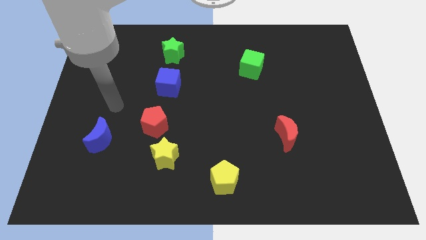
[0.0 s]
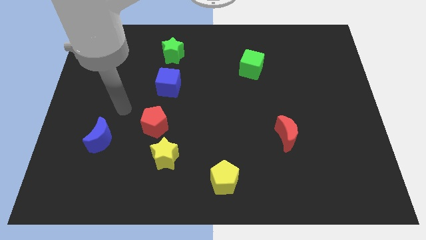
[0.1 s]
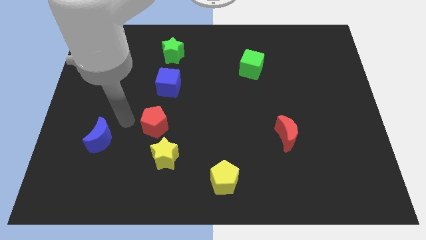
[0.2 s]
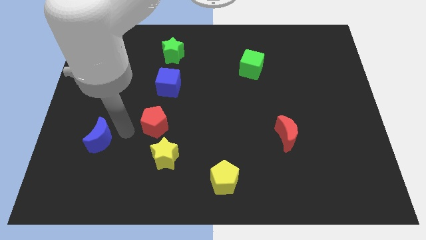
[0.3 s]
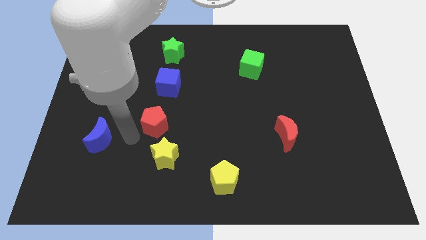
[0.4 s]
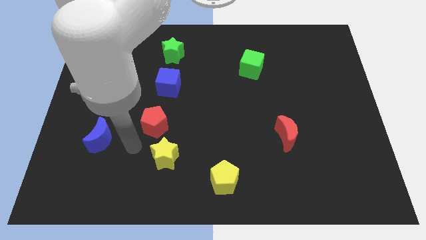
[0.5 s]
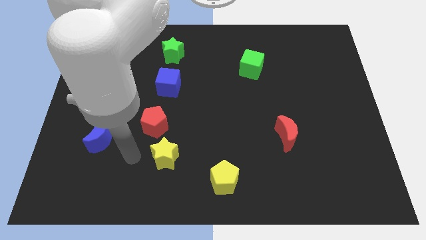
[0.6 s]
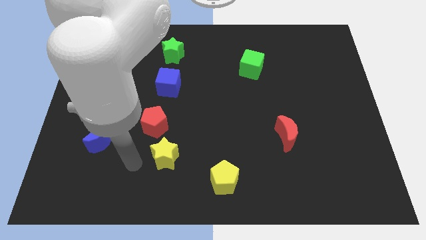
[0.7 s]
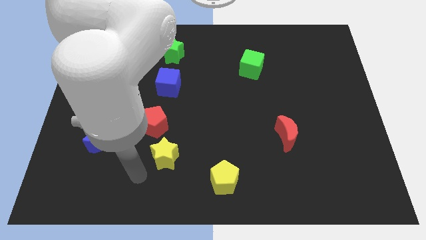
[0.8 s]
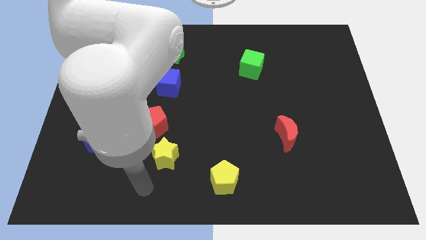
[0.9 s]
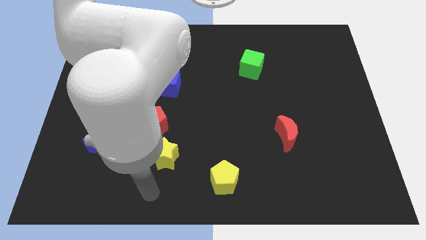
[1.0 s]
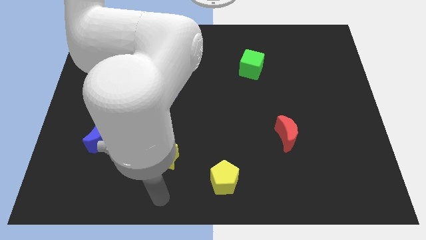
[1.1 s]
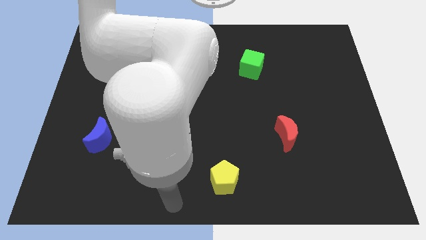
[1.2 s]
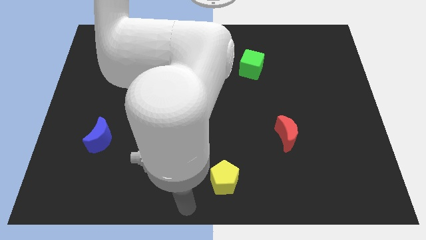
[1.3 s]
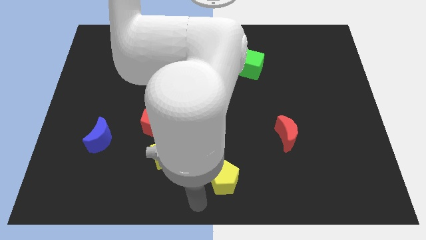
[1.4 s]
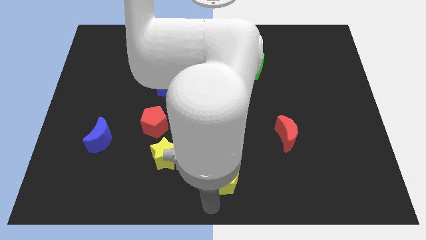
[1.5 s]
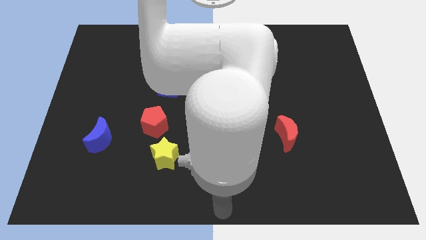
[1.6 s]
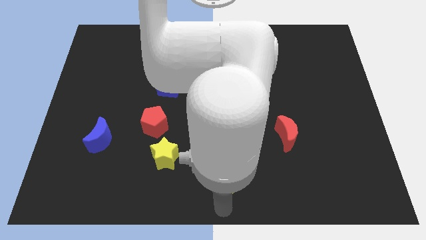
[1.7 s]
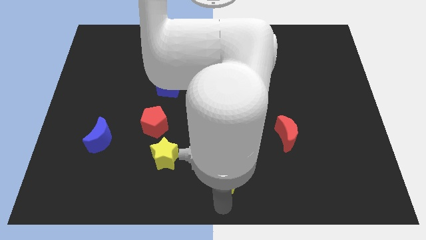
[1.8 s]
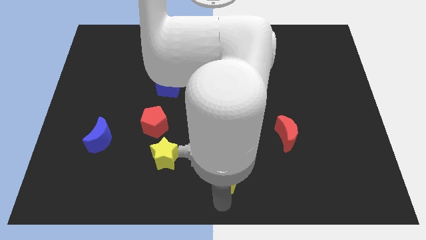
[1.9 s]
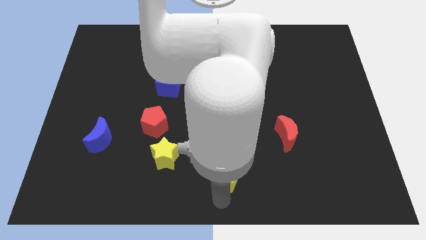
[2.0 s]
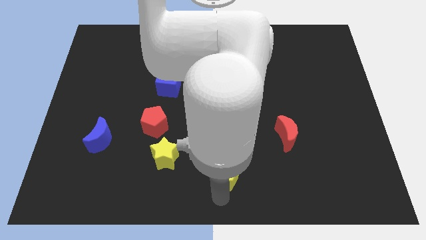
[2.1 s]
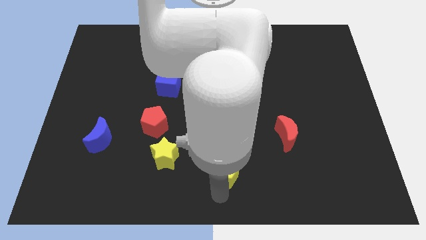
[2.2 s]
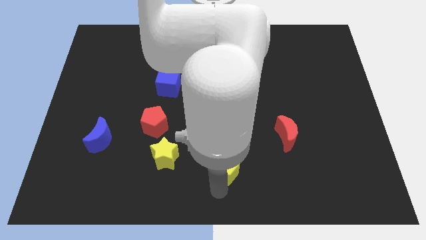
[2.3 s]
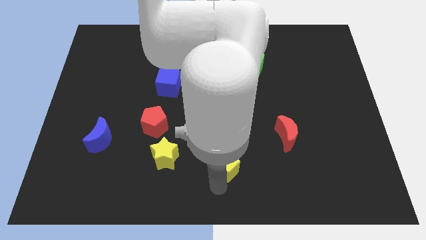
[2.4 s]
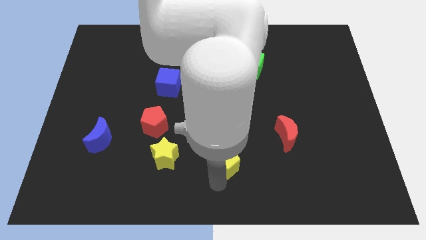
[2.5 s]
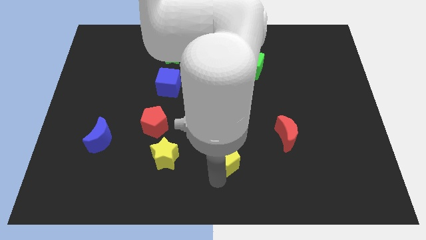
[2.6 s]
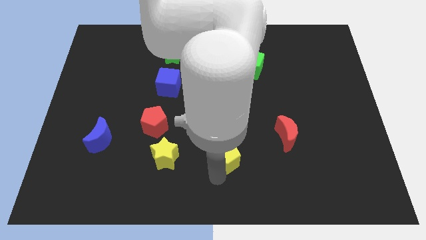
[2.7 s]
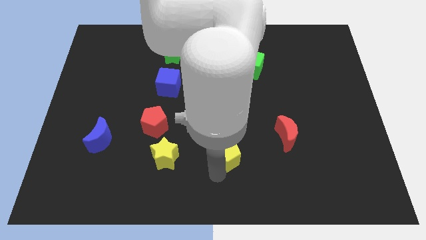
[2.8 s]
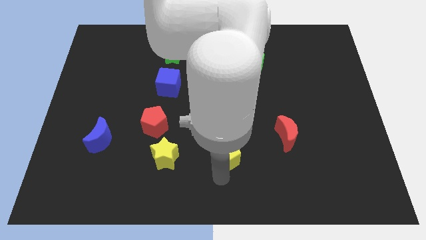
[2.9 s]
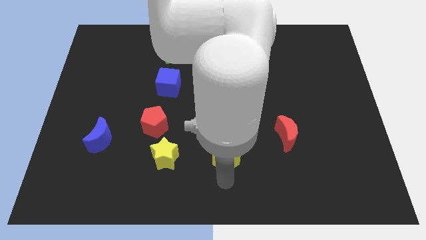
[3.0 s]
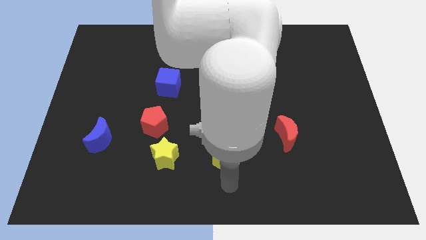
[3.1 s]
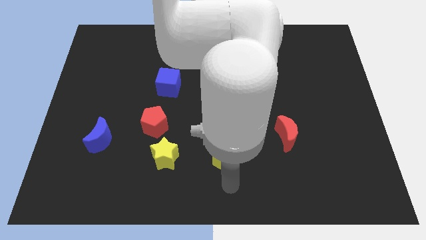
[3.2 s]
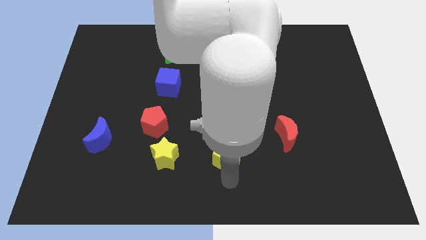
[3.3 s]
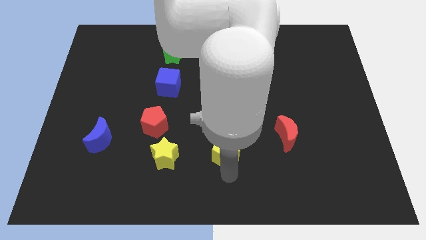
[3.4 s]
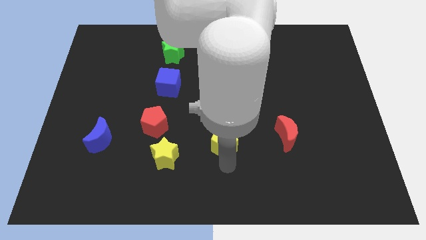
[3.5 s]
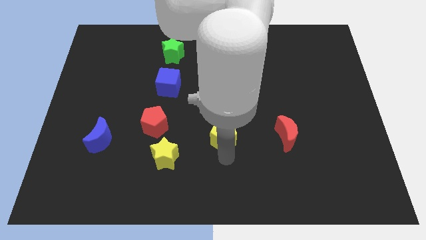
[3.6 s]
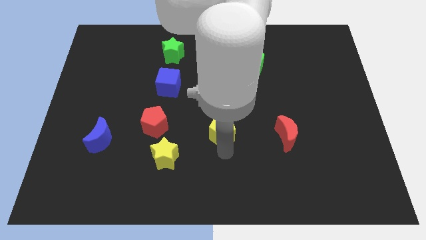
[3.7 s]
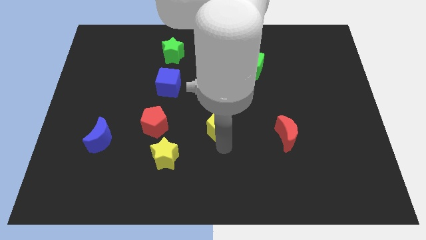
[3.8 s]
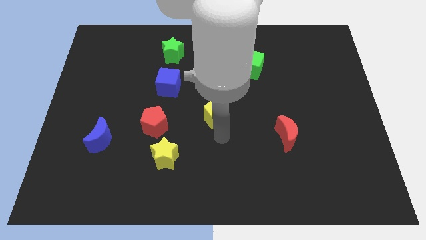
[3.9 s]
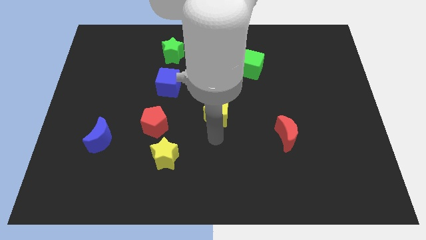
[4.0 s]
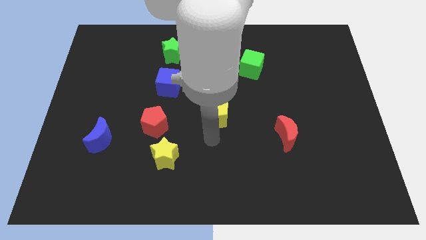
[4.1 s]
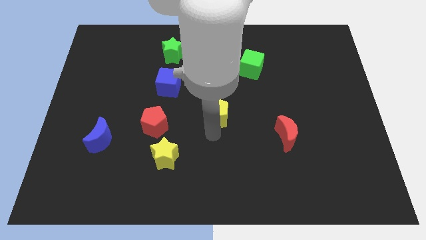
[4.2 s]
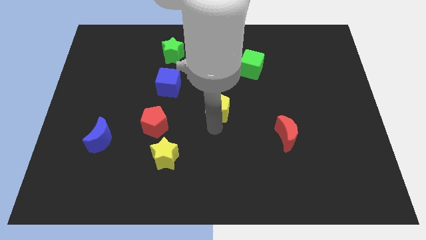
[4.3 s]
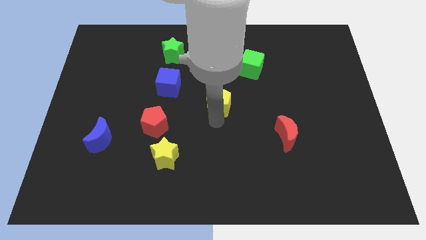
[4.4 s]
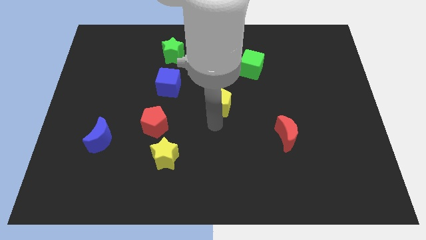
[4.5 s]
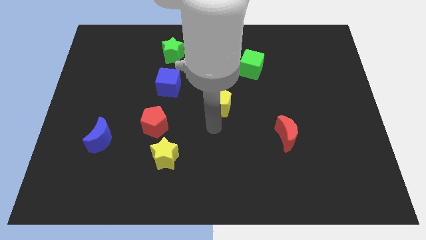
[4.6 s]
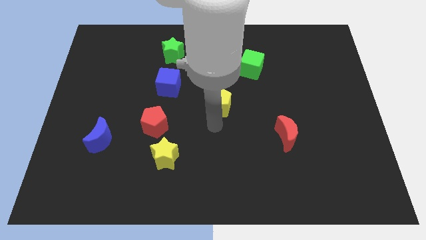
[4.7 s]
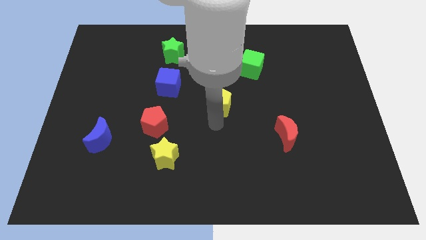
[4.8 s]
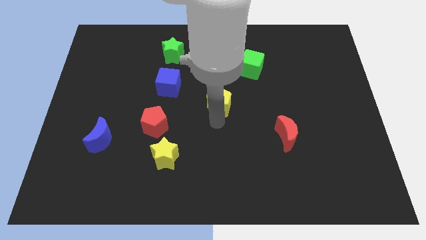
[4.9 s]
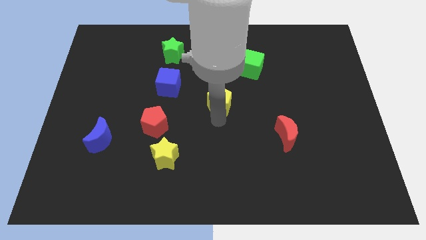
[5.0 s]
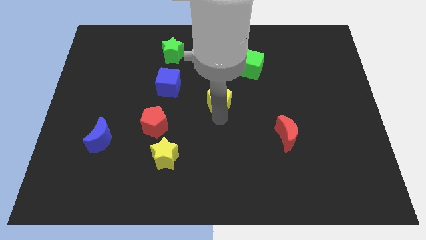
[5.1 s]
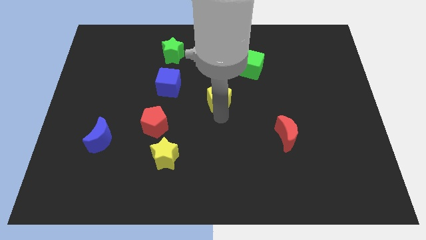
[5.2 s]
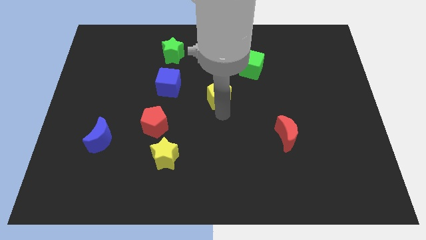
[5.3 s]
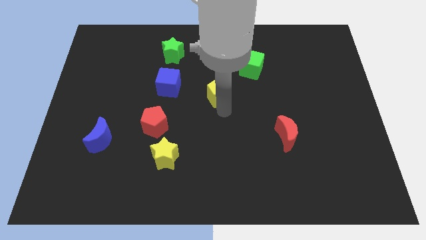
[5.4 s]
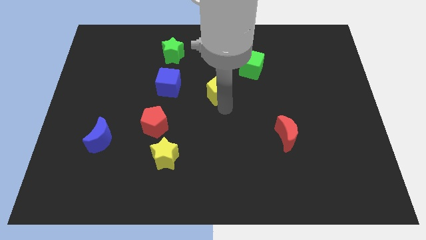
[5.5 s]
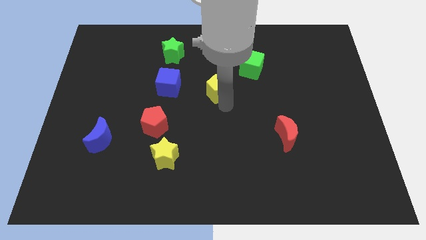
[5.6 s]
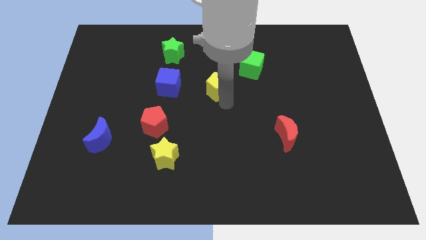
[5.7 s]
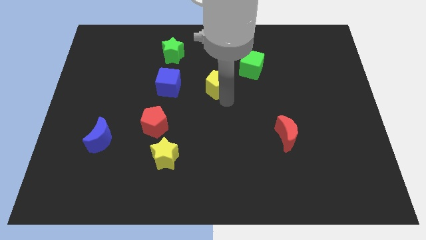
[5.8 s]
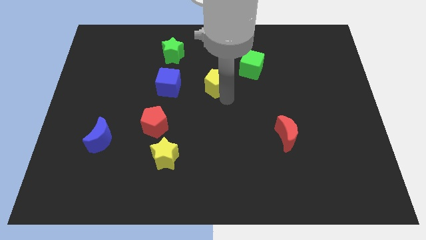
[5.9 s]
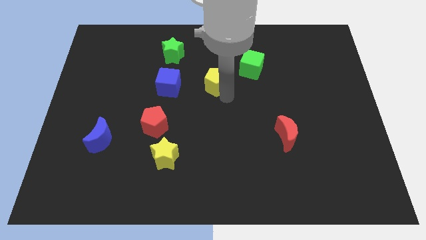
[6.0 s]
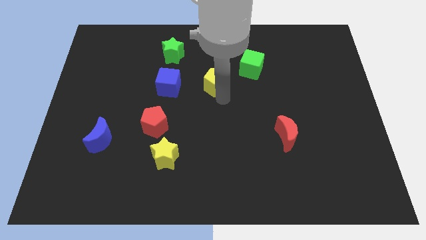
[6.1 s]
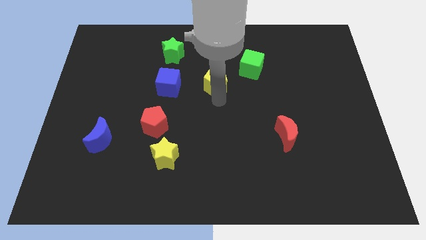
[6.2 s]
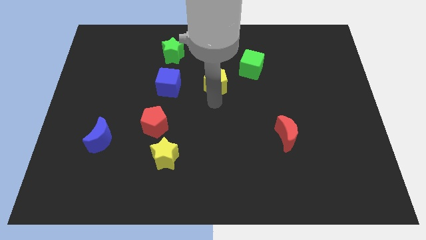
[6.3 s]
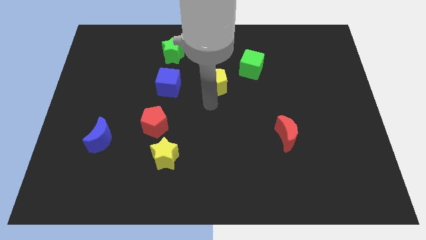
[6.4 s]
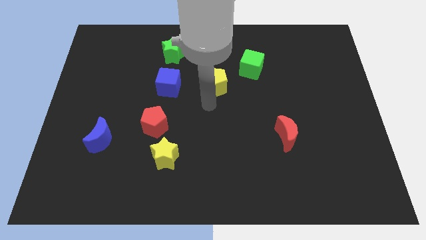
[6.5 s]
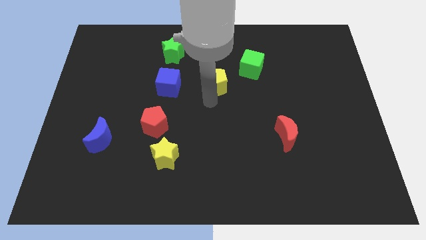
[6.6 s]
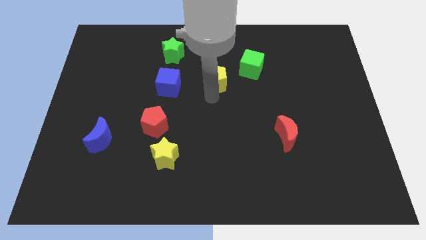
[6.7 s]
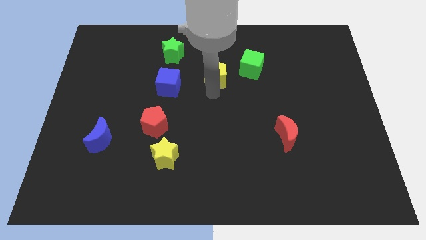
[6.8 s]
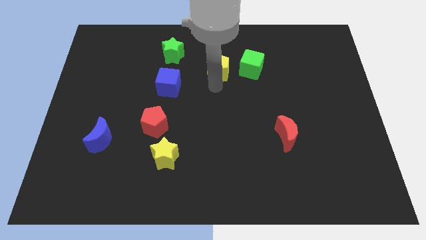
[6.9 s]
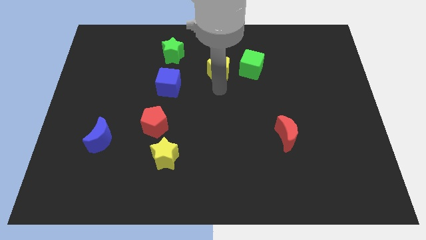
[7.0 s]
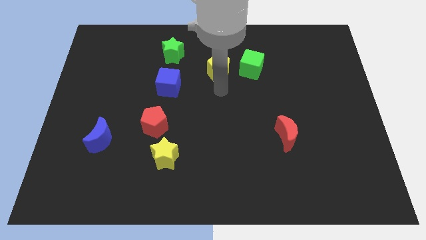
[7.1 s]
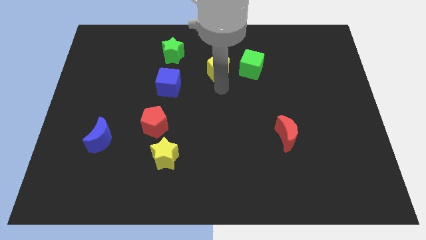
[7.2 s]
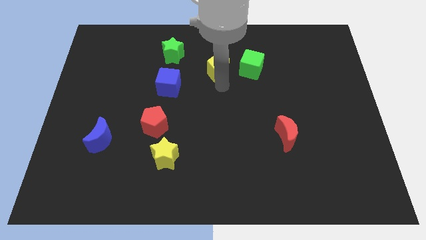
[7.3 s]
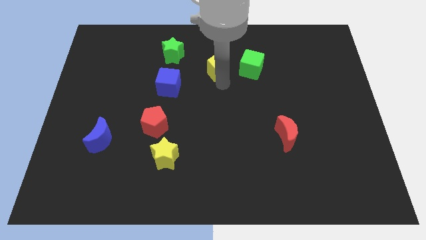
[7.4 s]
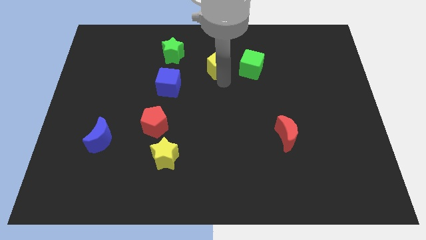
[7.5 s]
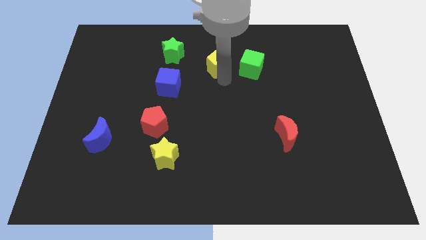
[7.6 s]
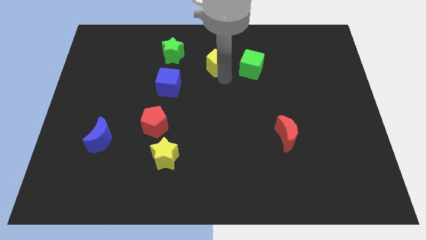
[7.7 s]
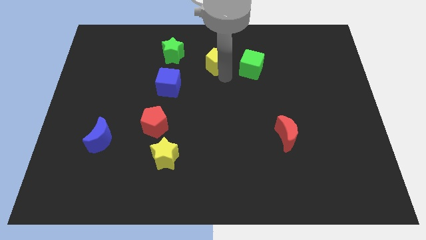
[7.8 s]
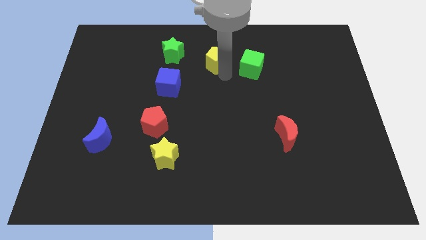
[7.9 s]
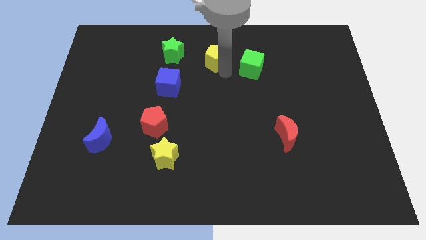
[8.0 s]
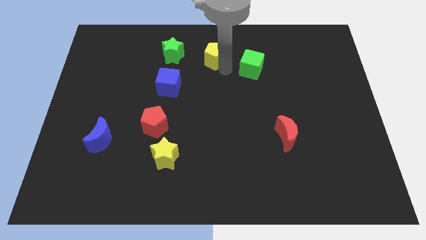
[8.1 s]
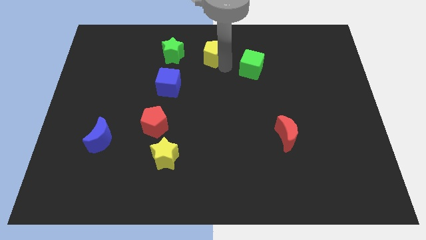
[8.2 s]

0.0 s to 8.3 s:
move the yellow pentagon to the top side
